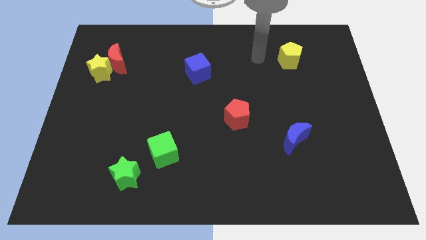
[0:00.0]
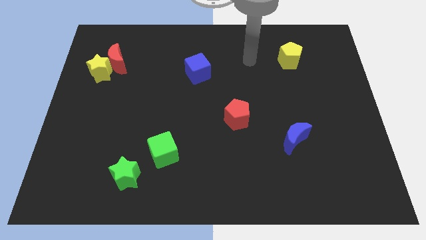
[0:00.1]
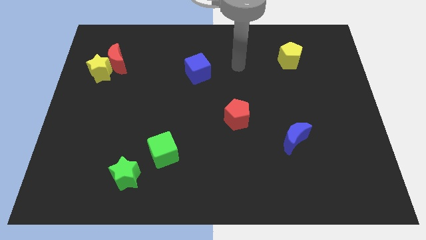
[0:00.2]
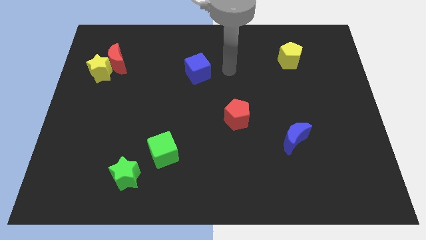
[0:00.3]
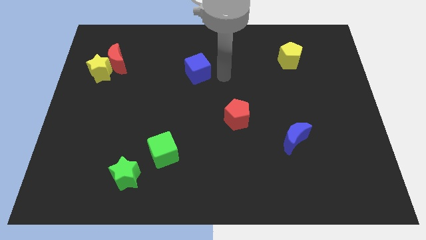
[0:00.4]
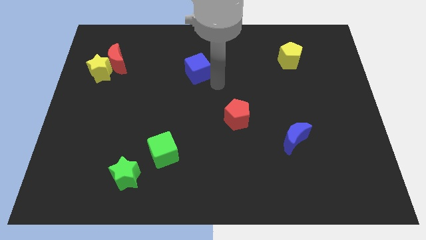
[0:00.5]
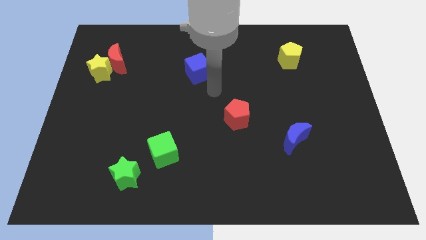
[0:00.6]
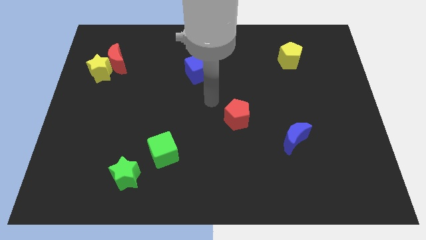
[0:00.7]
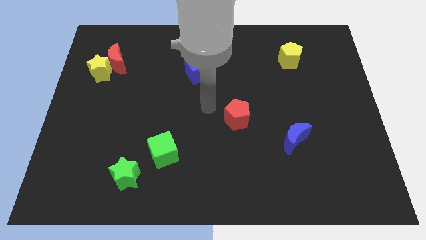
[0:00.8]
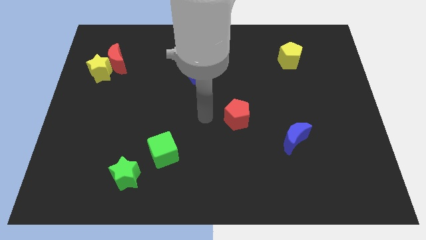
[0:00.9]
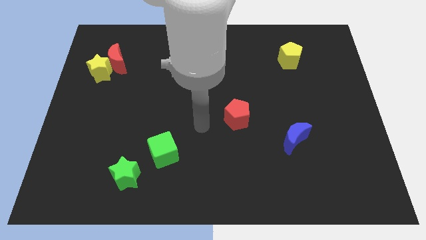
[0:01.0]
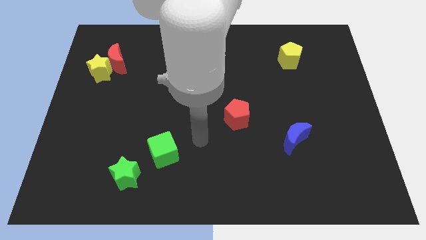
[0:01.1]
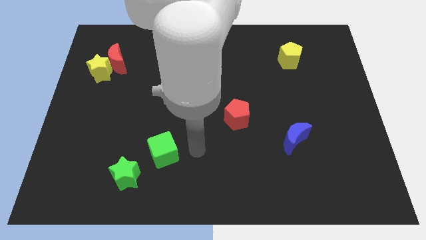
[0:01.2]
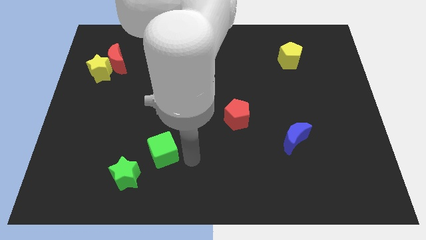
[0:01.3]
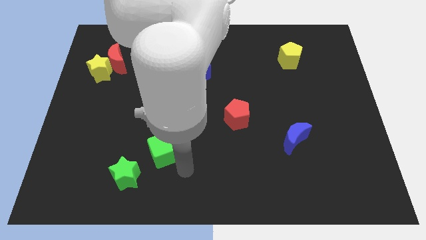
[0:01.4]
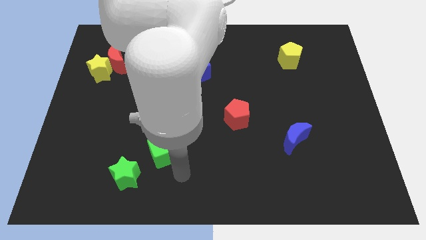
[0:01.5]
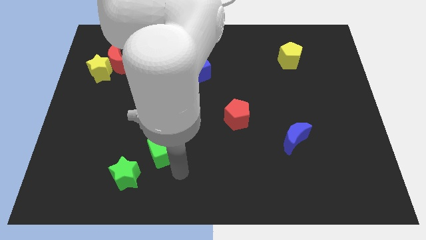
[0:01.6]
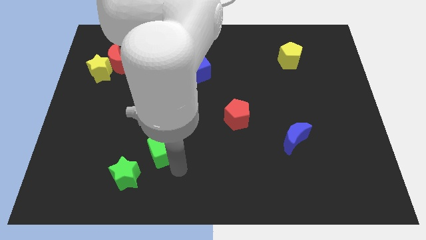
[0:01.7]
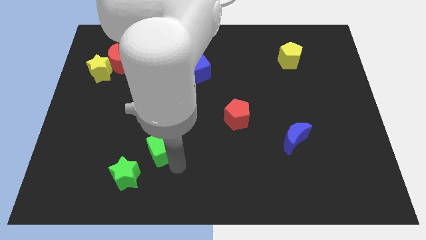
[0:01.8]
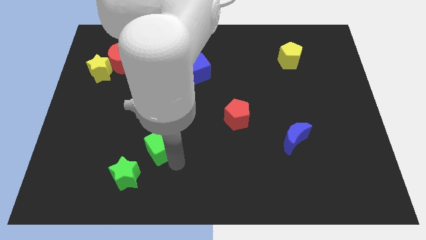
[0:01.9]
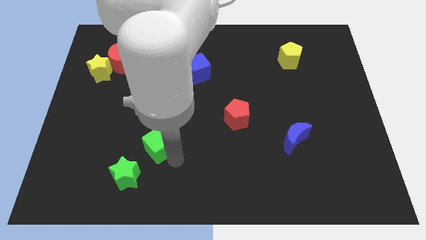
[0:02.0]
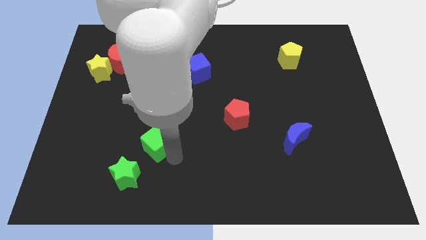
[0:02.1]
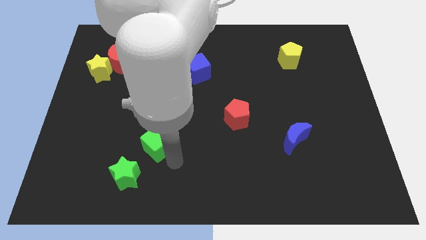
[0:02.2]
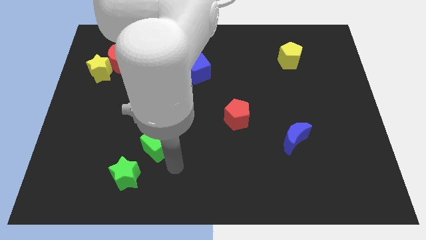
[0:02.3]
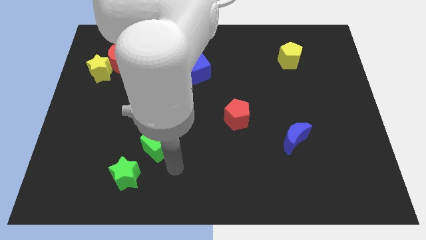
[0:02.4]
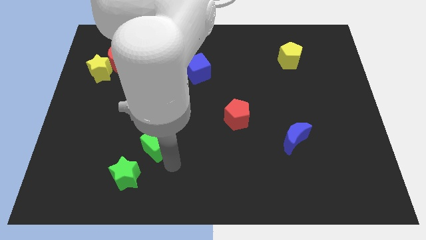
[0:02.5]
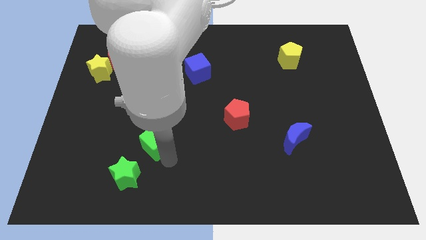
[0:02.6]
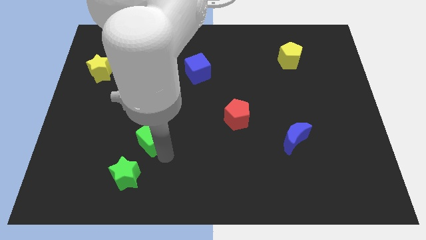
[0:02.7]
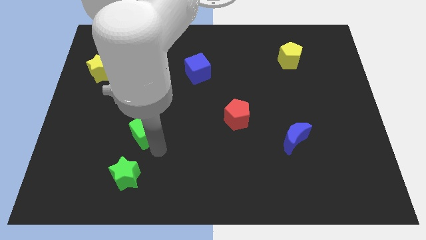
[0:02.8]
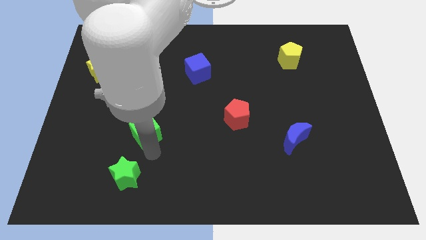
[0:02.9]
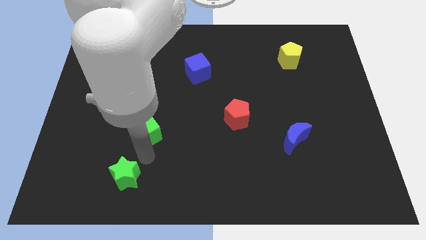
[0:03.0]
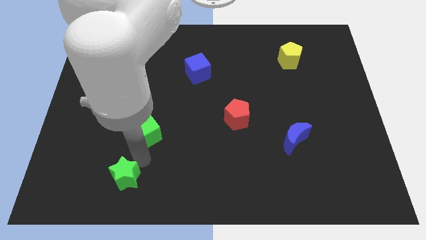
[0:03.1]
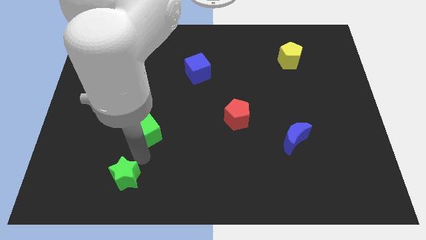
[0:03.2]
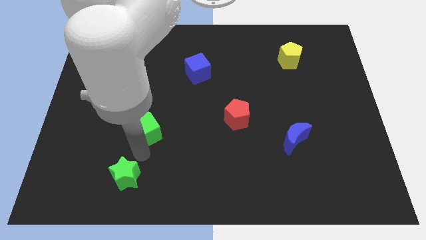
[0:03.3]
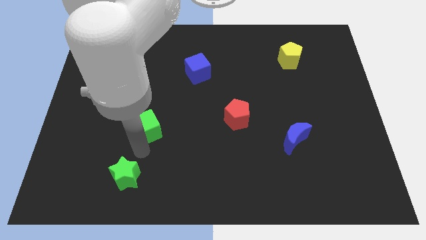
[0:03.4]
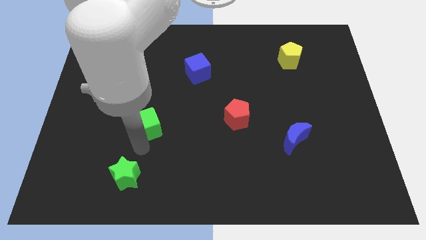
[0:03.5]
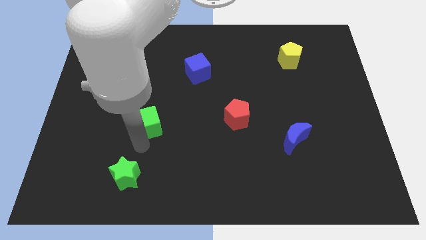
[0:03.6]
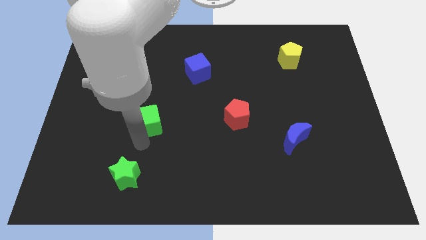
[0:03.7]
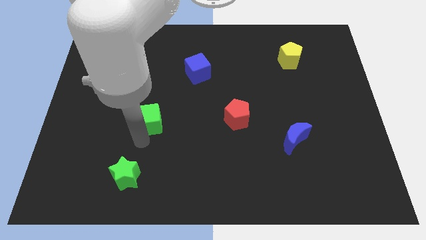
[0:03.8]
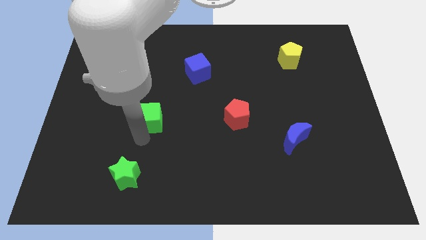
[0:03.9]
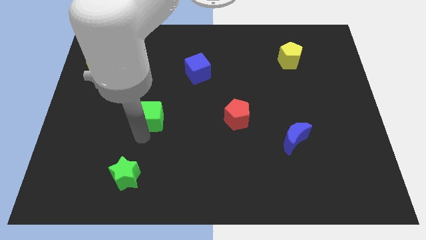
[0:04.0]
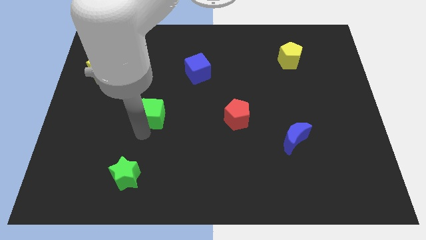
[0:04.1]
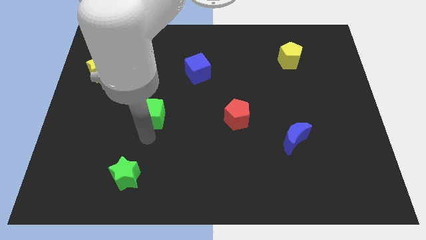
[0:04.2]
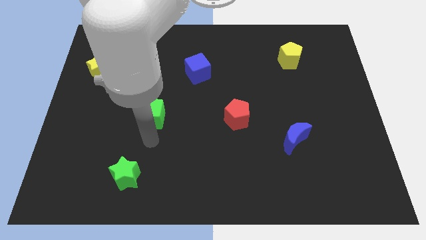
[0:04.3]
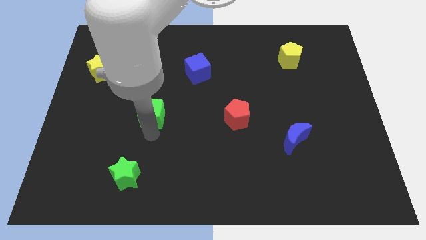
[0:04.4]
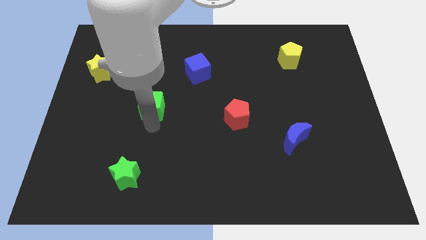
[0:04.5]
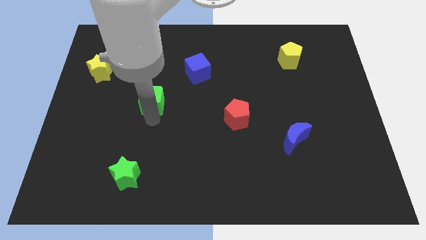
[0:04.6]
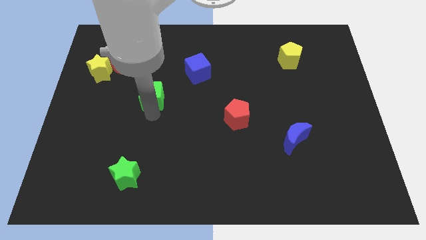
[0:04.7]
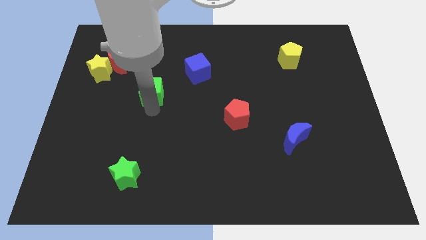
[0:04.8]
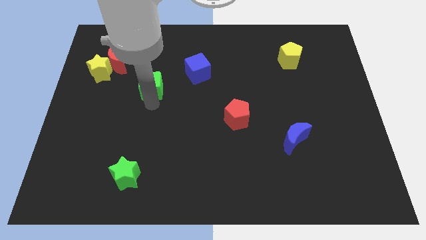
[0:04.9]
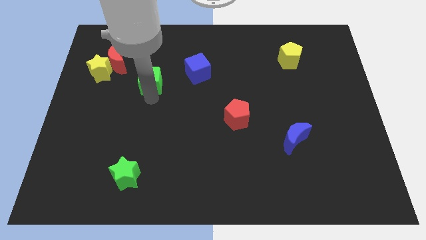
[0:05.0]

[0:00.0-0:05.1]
move the green cube just left of the blue cube

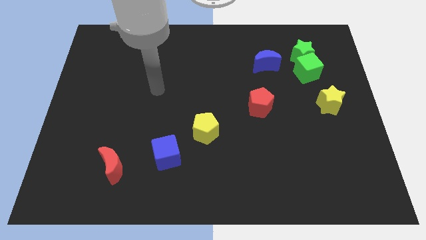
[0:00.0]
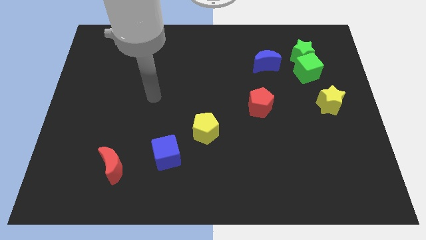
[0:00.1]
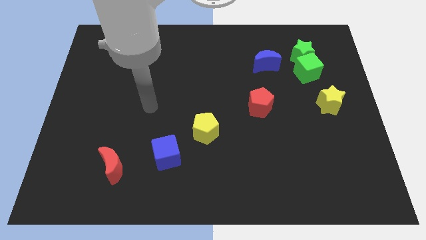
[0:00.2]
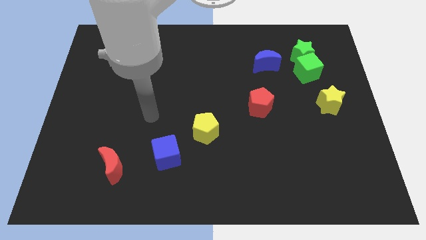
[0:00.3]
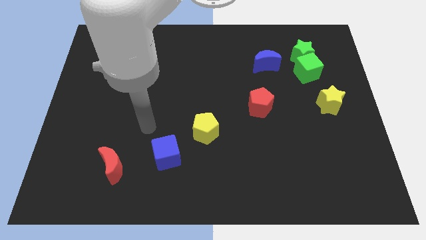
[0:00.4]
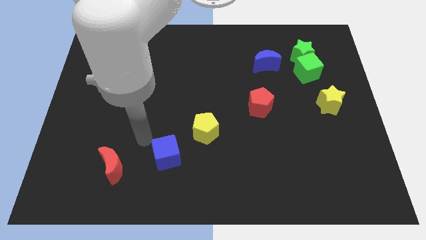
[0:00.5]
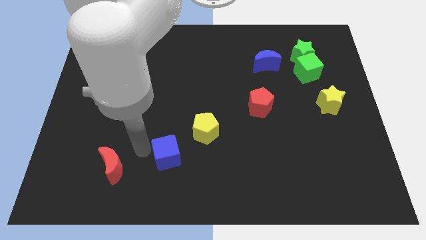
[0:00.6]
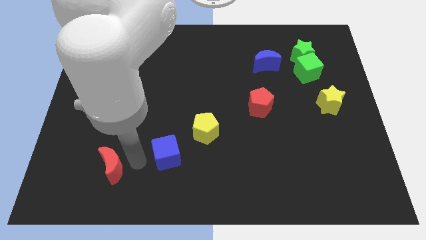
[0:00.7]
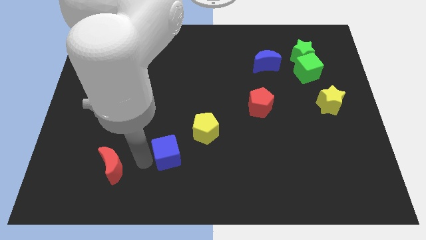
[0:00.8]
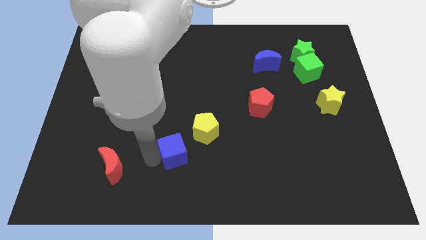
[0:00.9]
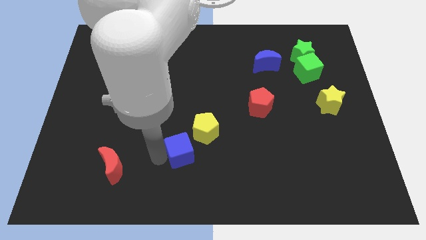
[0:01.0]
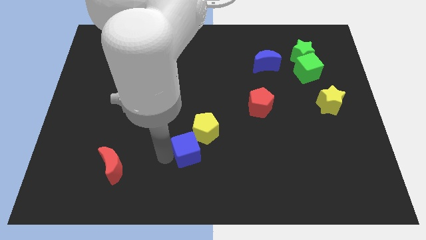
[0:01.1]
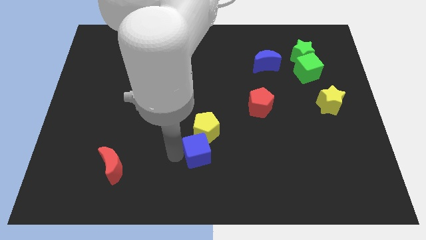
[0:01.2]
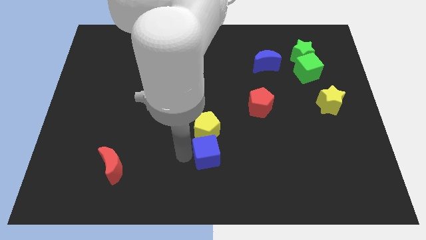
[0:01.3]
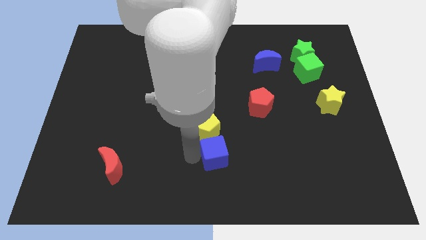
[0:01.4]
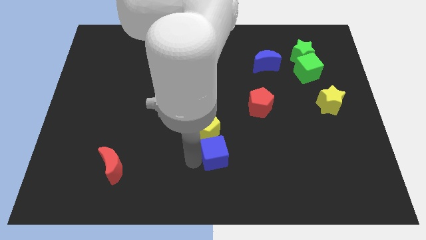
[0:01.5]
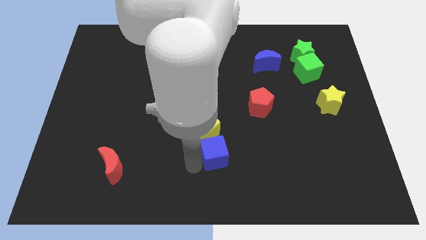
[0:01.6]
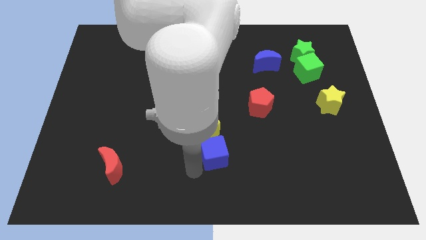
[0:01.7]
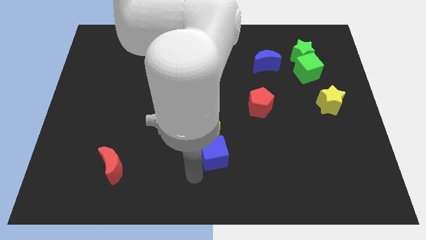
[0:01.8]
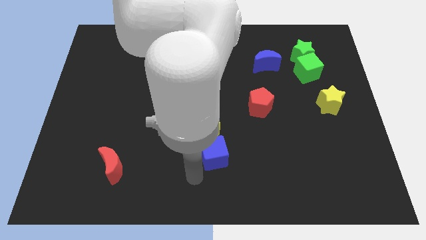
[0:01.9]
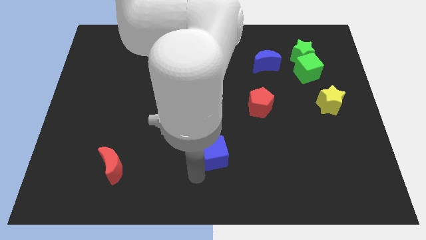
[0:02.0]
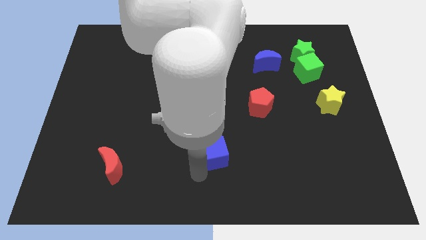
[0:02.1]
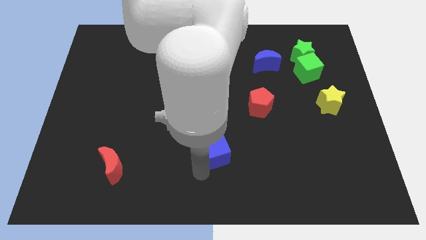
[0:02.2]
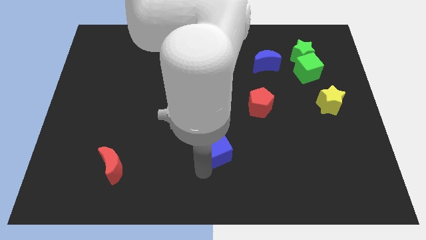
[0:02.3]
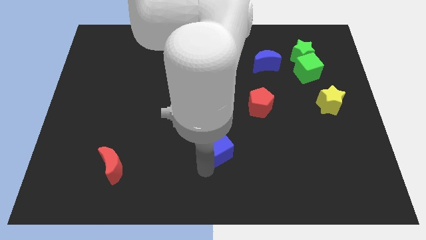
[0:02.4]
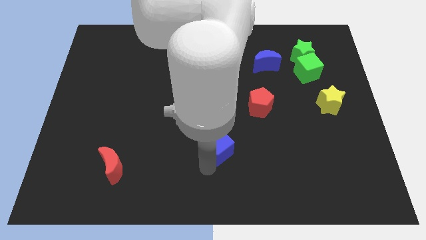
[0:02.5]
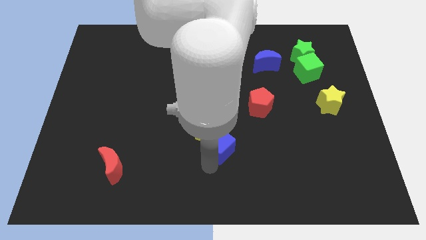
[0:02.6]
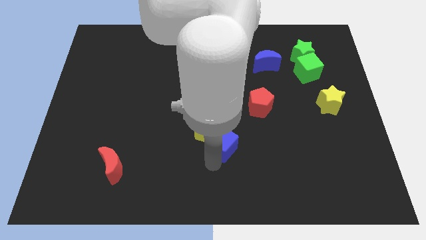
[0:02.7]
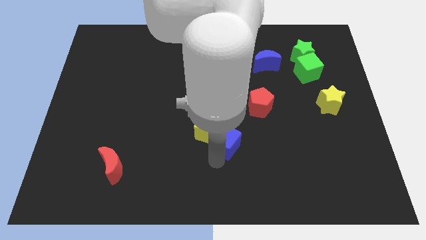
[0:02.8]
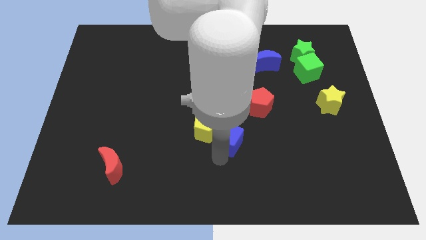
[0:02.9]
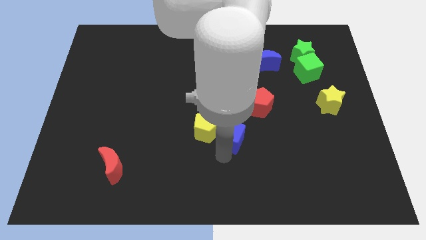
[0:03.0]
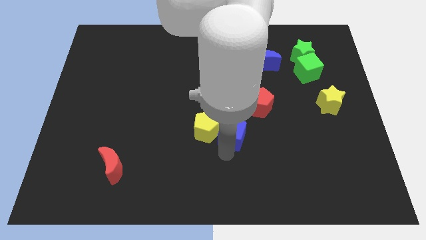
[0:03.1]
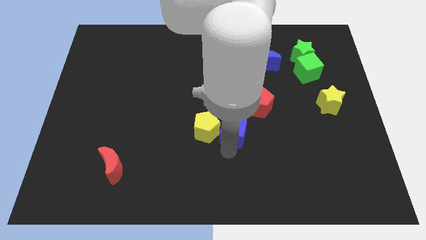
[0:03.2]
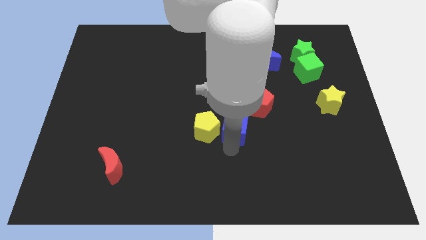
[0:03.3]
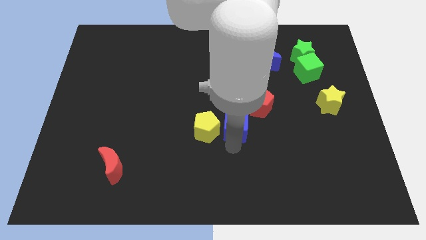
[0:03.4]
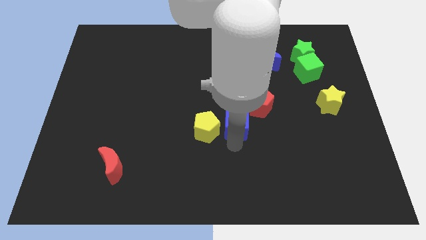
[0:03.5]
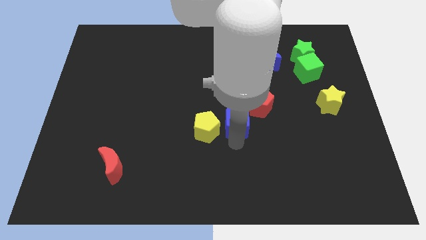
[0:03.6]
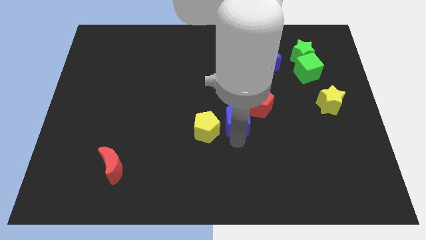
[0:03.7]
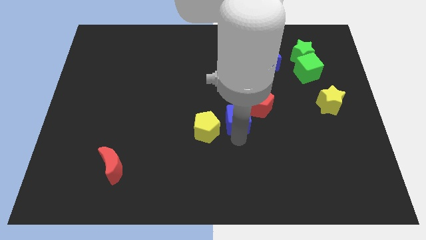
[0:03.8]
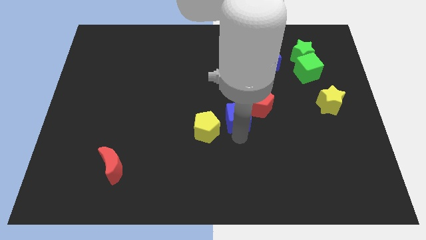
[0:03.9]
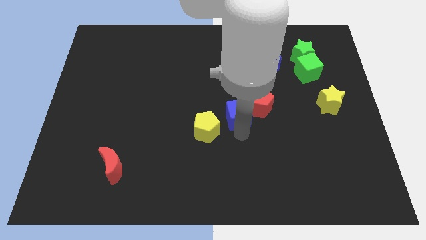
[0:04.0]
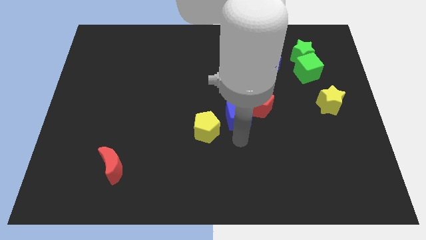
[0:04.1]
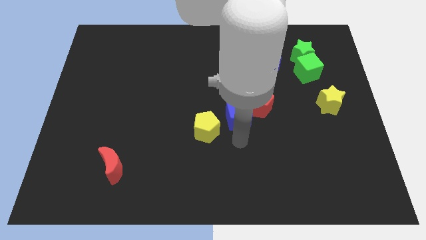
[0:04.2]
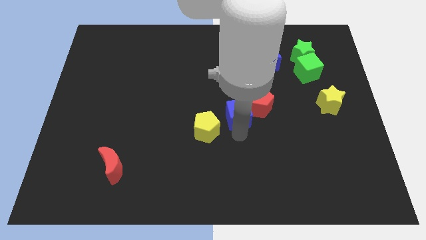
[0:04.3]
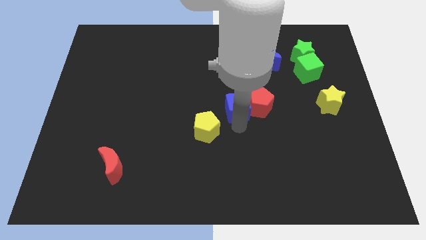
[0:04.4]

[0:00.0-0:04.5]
put the blue cube to the top left side of the red pentagon
